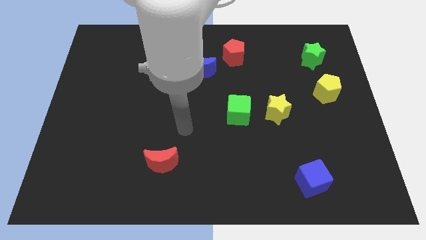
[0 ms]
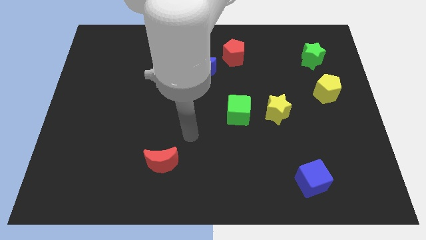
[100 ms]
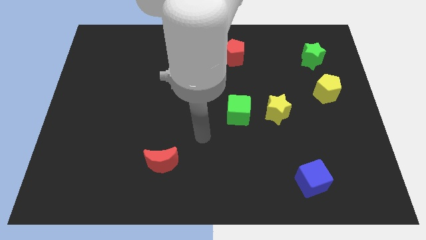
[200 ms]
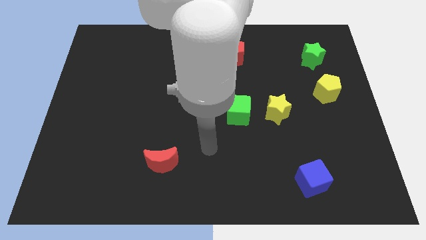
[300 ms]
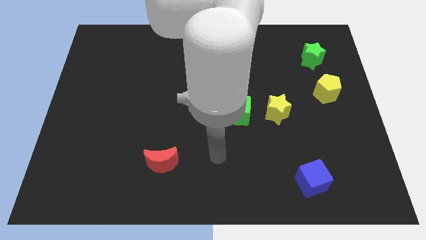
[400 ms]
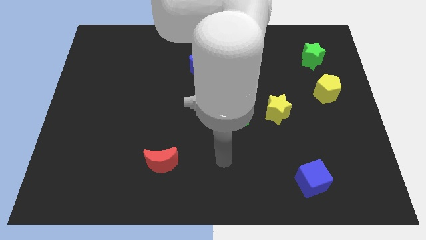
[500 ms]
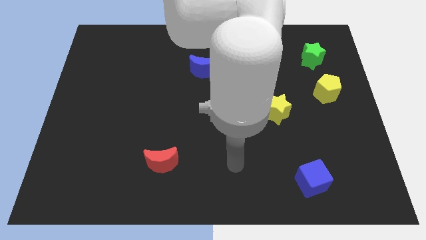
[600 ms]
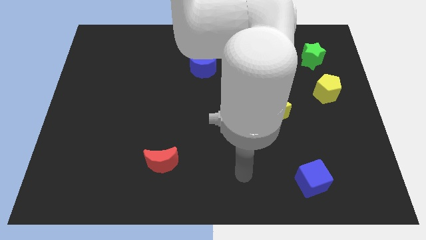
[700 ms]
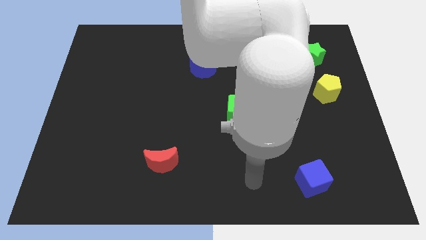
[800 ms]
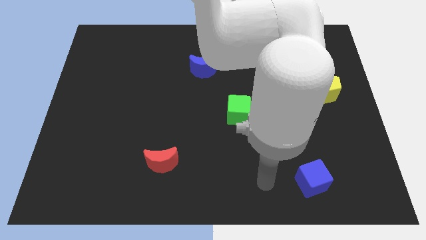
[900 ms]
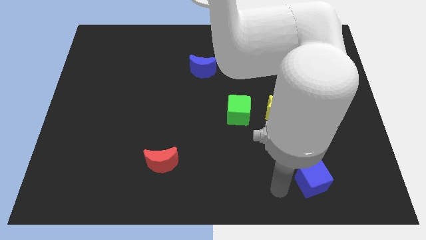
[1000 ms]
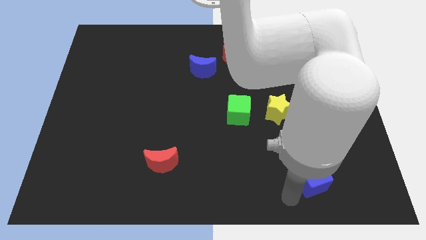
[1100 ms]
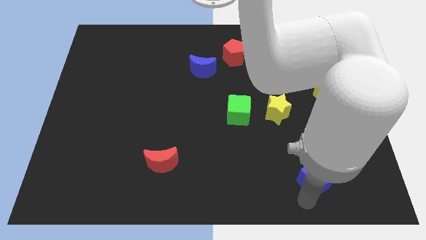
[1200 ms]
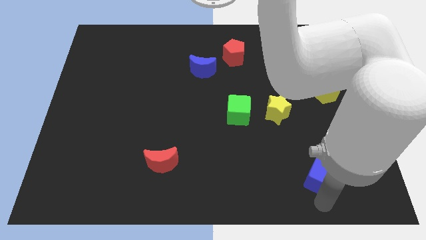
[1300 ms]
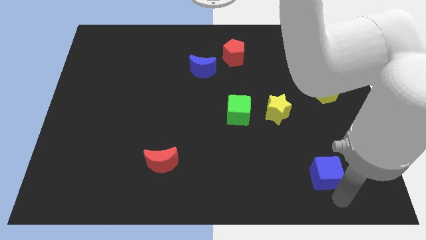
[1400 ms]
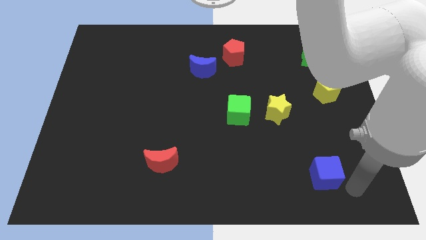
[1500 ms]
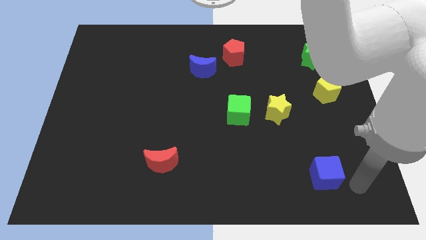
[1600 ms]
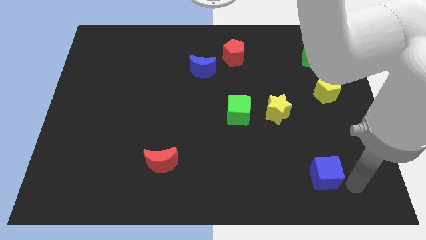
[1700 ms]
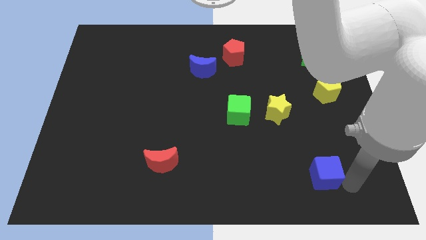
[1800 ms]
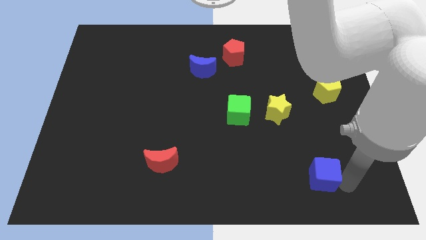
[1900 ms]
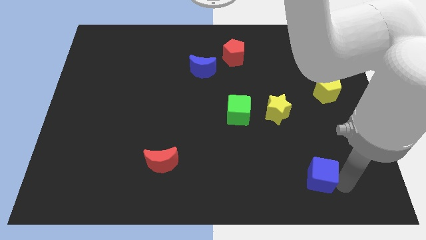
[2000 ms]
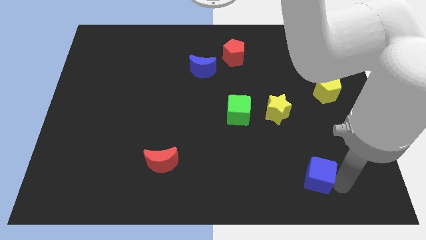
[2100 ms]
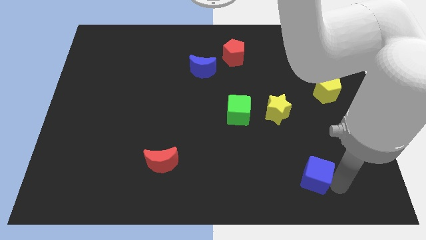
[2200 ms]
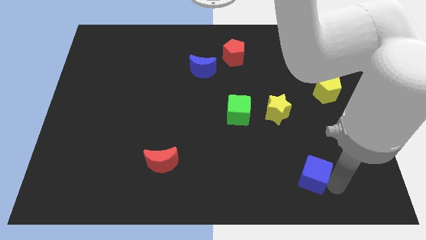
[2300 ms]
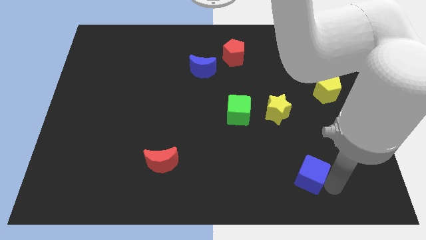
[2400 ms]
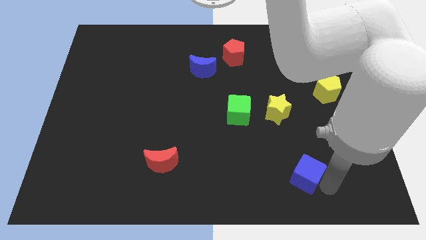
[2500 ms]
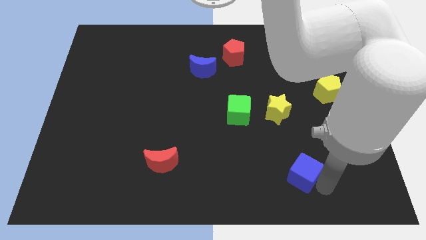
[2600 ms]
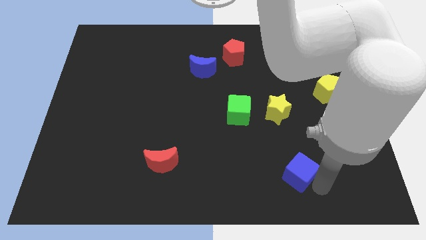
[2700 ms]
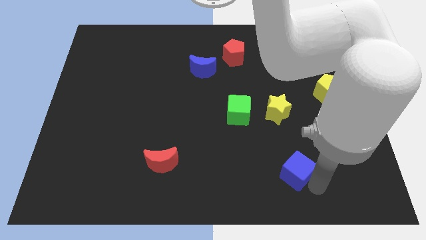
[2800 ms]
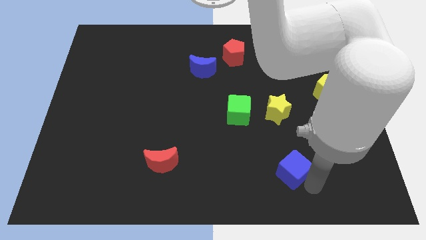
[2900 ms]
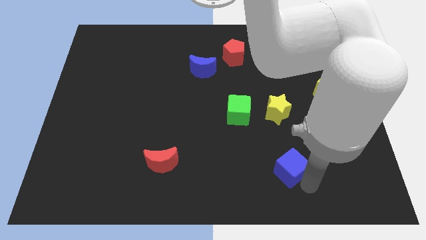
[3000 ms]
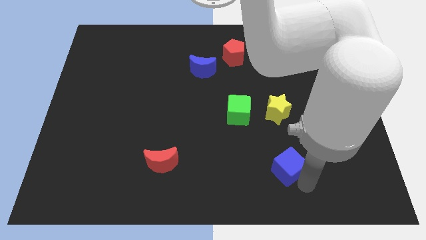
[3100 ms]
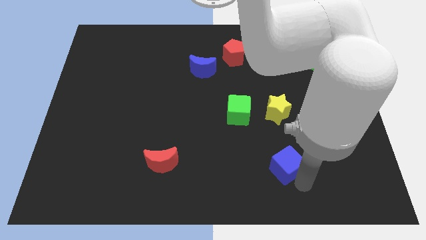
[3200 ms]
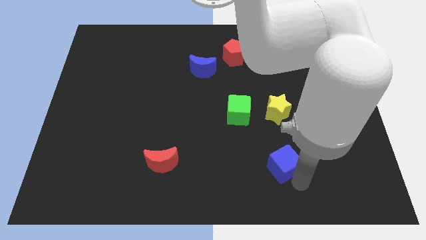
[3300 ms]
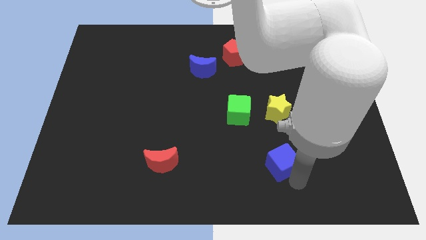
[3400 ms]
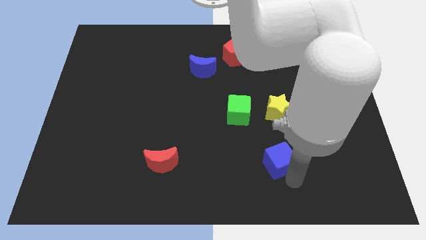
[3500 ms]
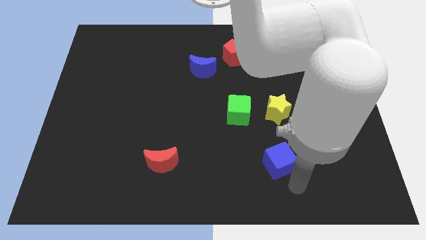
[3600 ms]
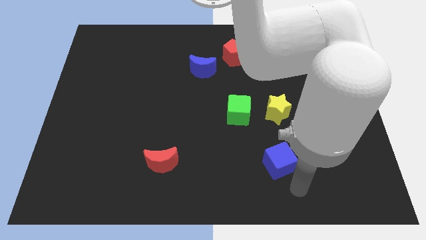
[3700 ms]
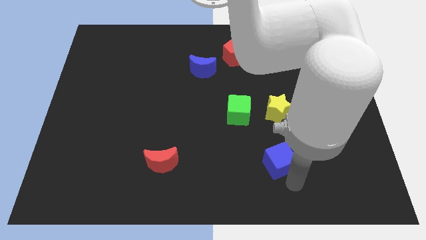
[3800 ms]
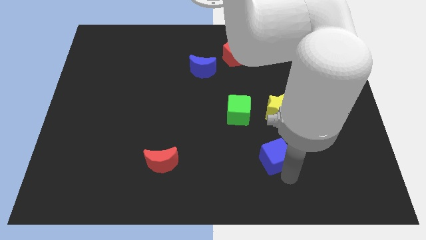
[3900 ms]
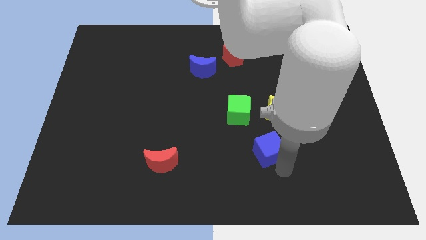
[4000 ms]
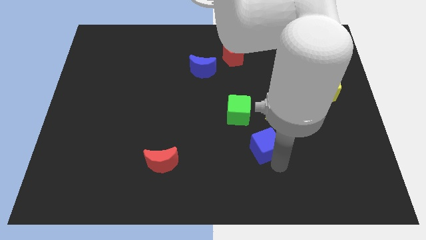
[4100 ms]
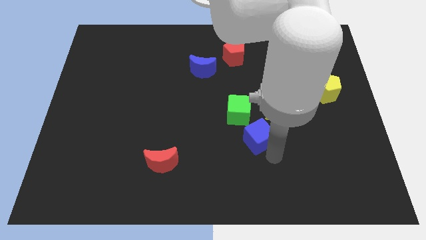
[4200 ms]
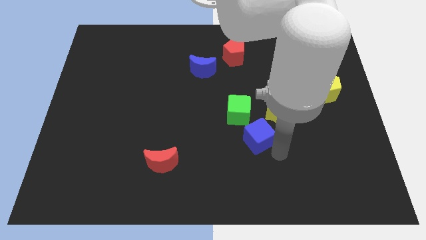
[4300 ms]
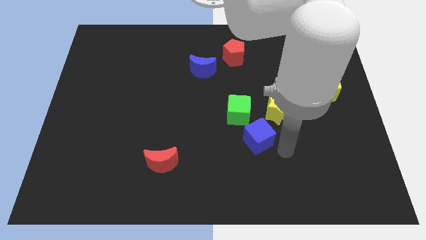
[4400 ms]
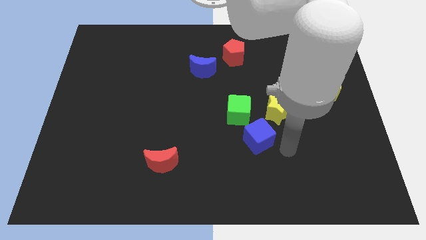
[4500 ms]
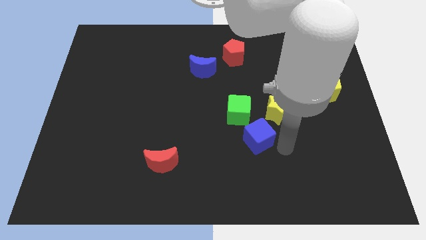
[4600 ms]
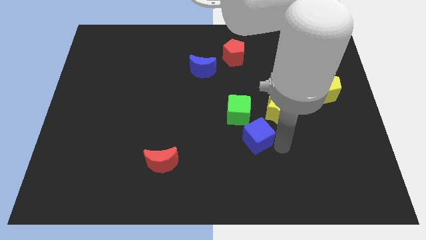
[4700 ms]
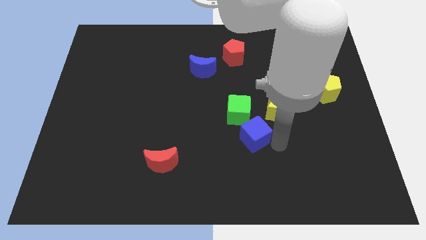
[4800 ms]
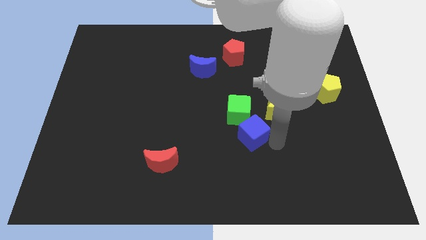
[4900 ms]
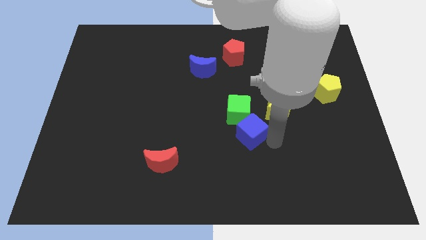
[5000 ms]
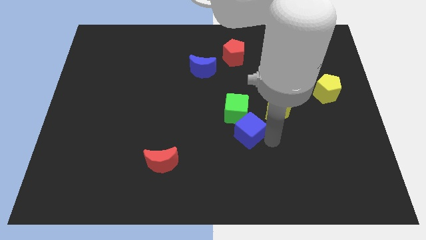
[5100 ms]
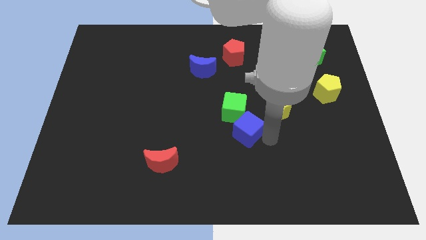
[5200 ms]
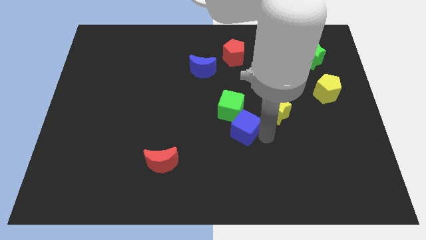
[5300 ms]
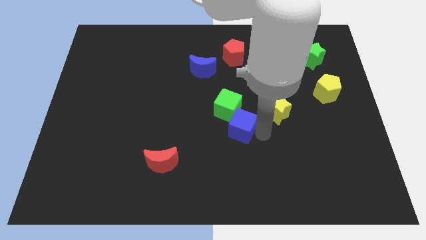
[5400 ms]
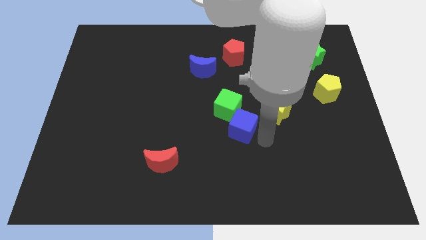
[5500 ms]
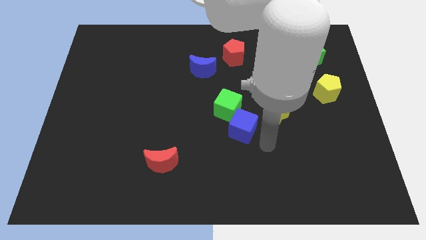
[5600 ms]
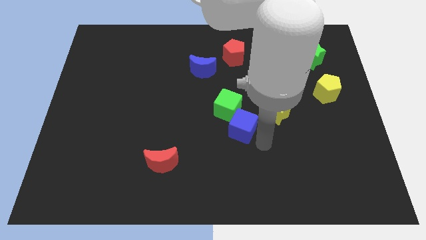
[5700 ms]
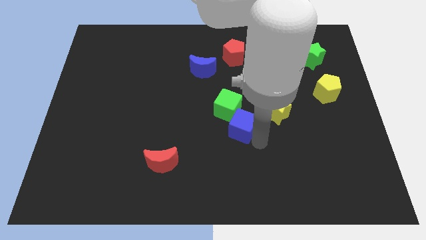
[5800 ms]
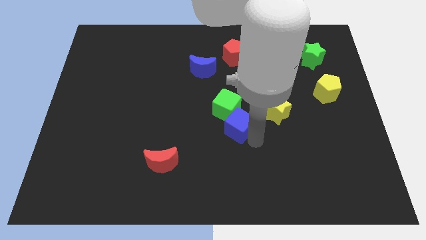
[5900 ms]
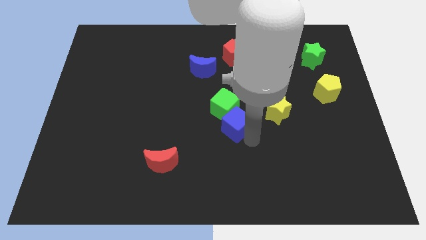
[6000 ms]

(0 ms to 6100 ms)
move the blue cube up and left diagonally

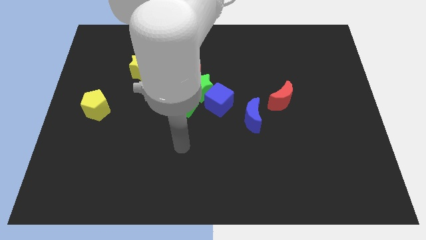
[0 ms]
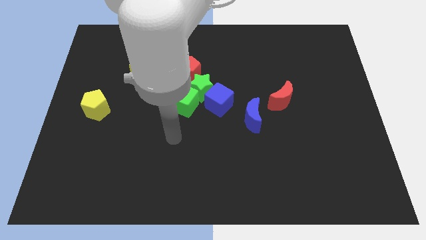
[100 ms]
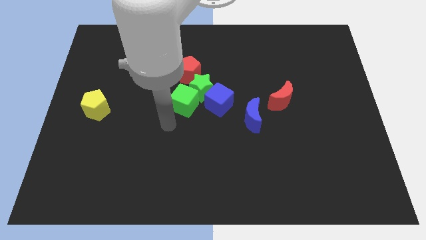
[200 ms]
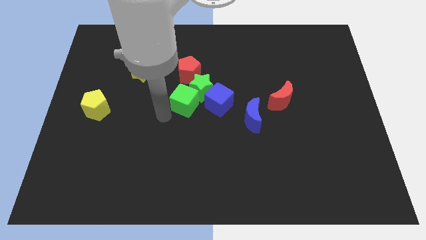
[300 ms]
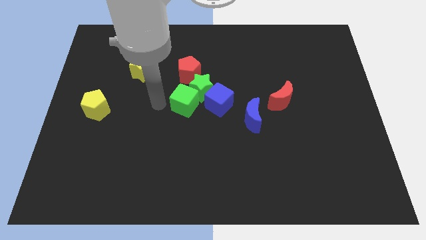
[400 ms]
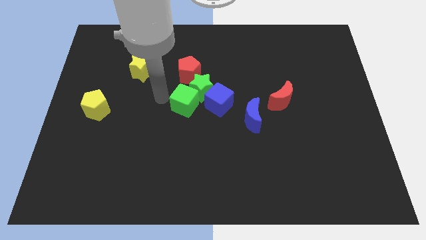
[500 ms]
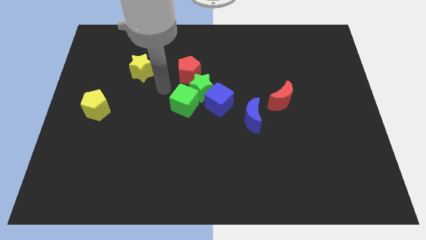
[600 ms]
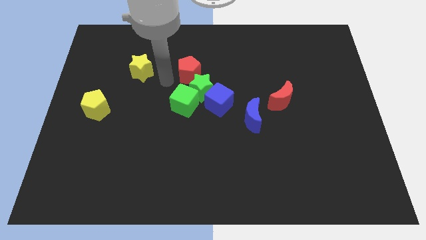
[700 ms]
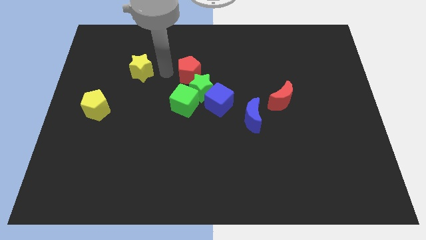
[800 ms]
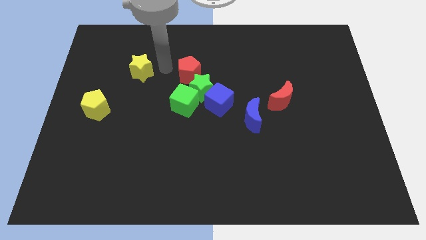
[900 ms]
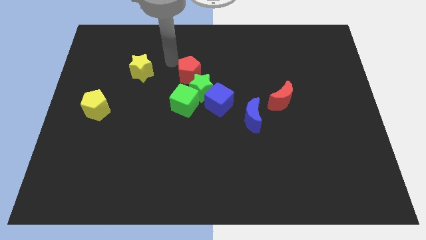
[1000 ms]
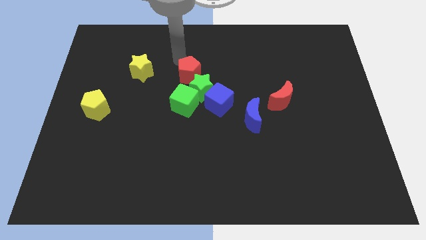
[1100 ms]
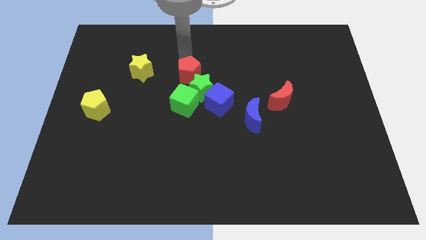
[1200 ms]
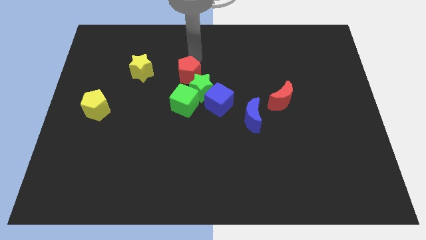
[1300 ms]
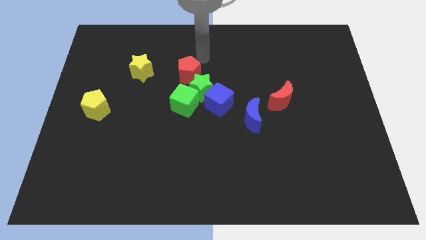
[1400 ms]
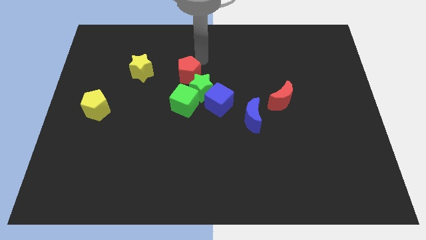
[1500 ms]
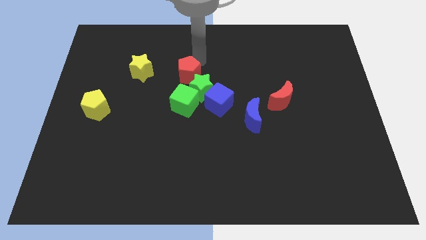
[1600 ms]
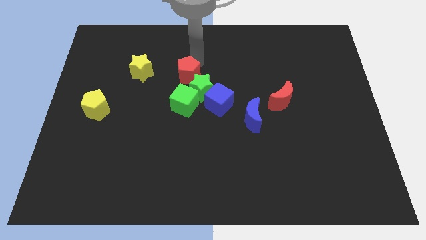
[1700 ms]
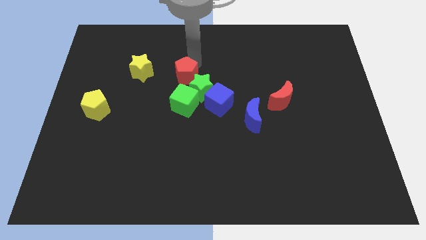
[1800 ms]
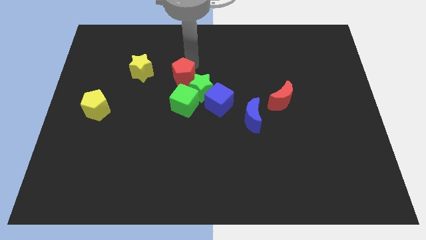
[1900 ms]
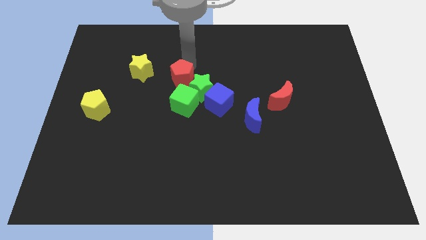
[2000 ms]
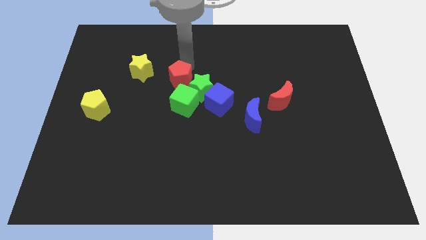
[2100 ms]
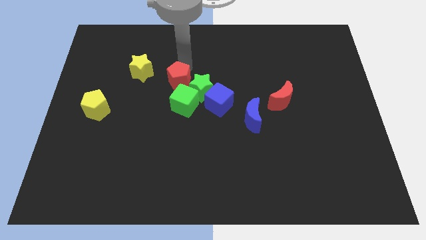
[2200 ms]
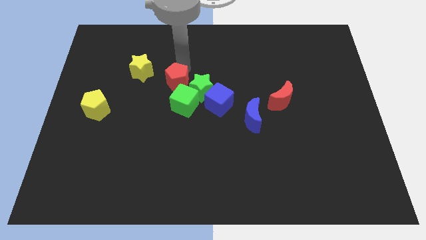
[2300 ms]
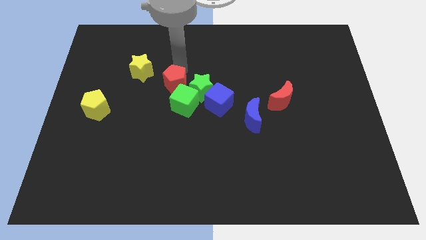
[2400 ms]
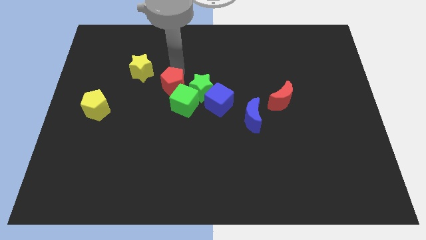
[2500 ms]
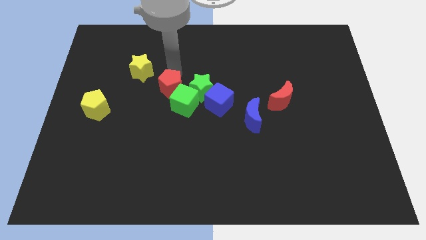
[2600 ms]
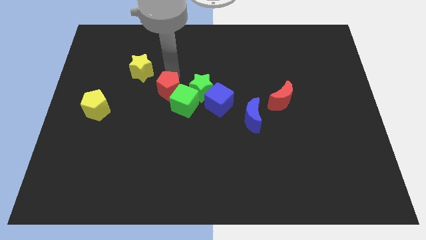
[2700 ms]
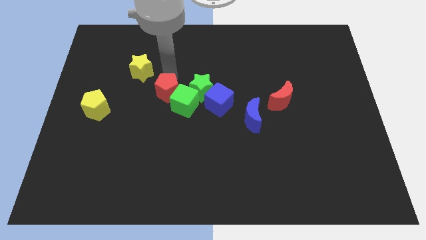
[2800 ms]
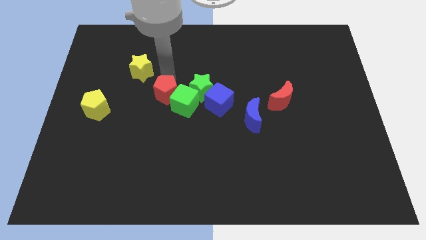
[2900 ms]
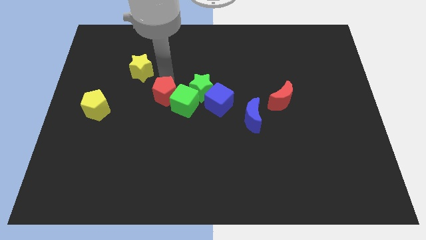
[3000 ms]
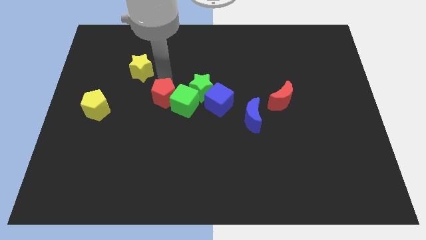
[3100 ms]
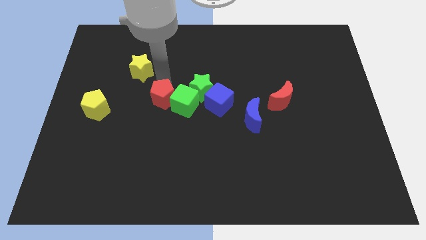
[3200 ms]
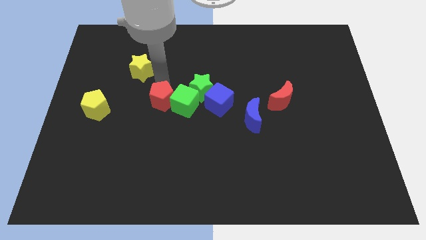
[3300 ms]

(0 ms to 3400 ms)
push the red pentagon down a bit
